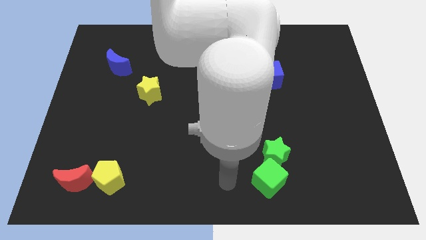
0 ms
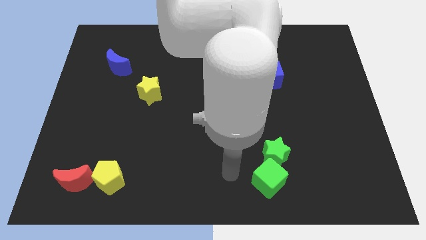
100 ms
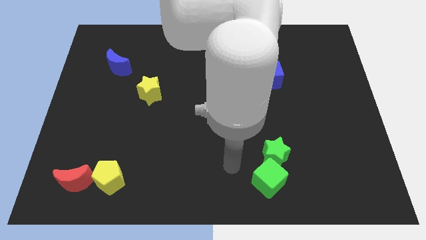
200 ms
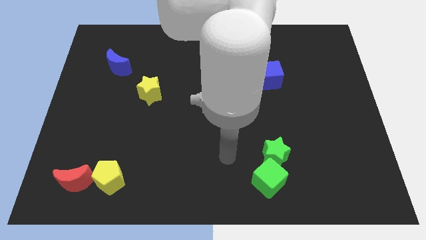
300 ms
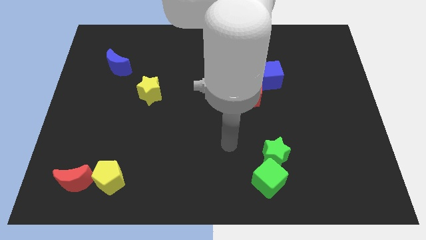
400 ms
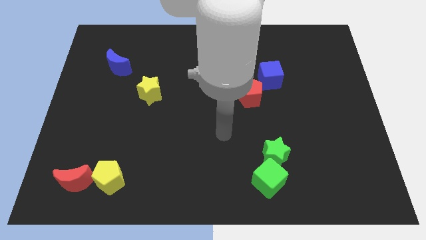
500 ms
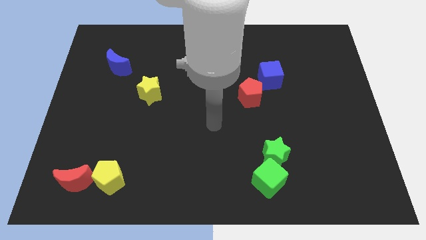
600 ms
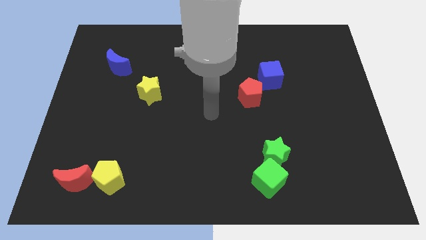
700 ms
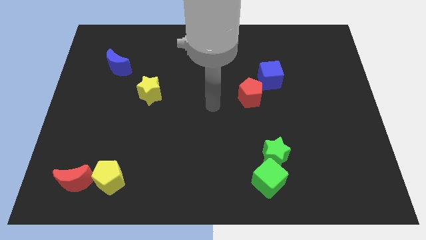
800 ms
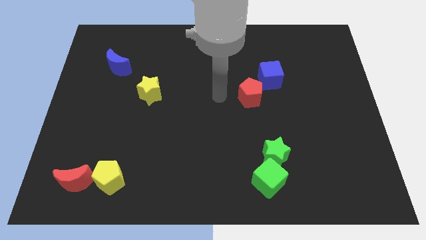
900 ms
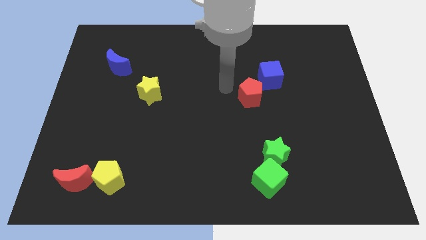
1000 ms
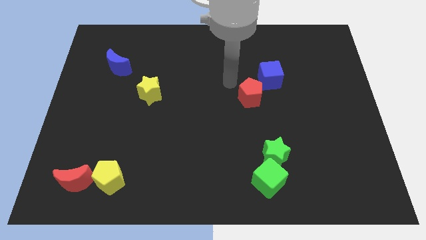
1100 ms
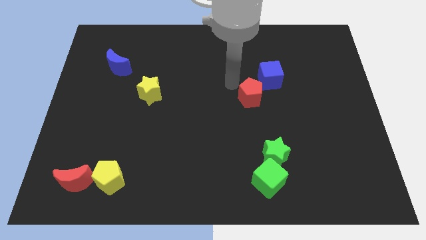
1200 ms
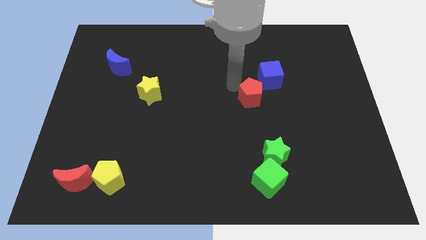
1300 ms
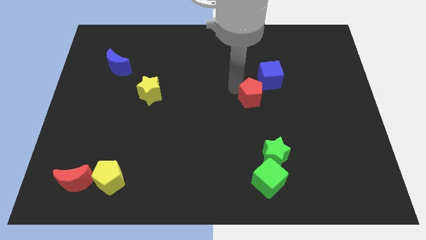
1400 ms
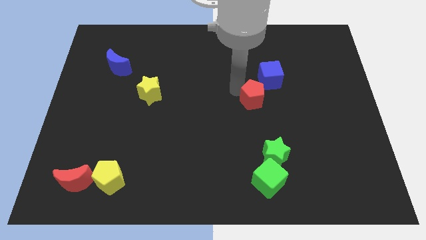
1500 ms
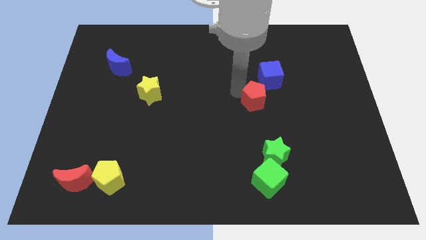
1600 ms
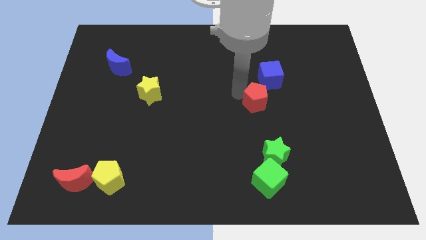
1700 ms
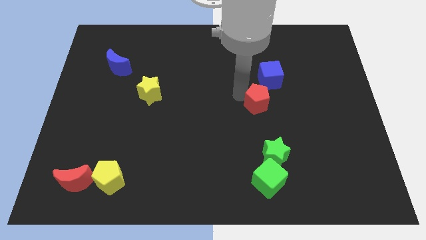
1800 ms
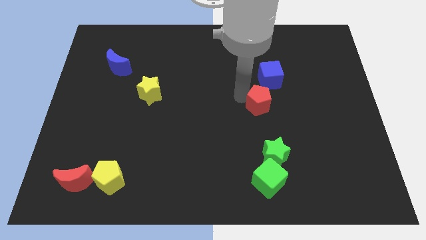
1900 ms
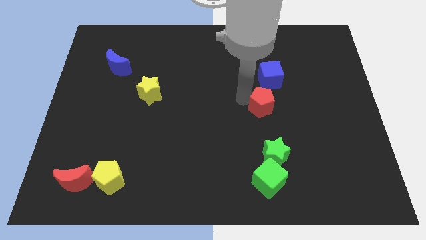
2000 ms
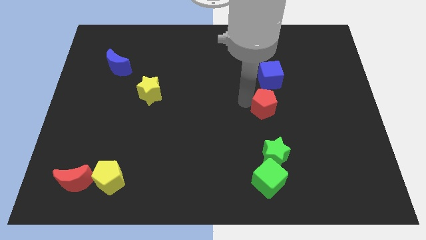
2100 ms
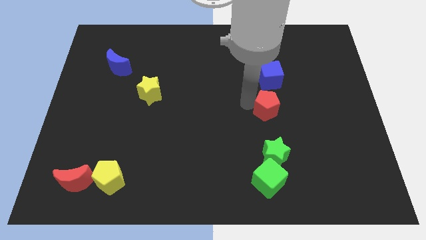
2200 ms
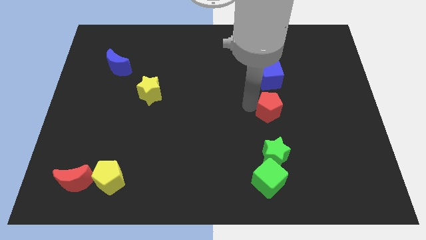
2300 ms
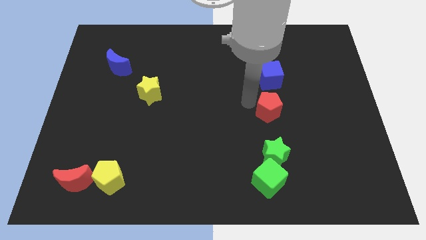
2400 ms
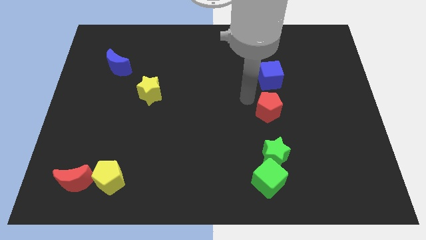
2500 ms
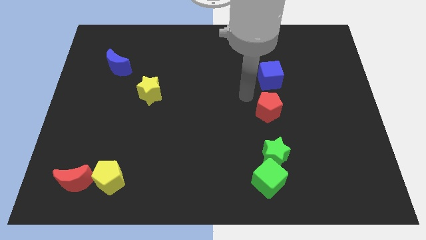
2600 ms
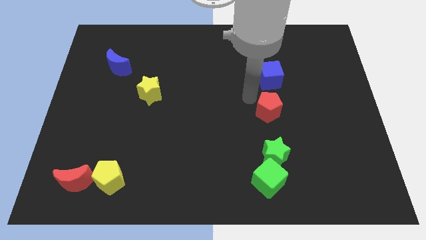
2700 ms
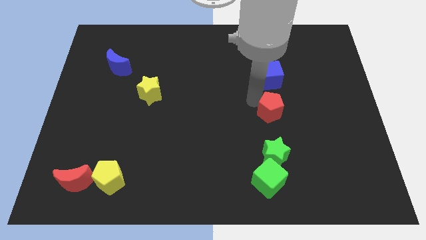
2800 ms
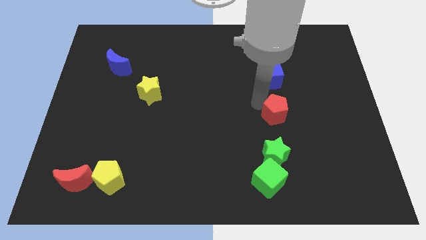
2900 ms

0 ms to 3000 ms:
push the red pentagon a little bit downwards and then to the right

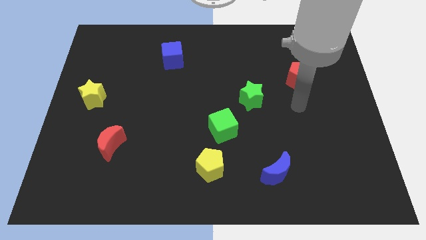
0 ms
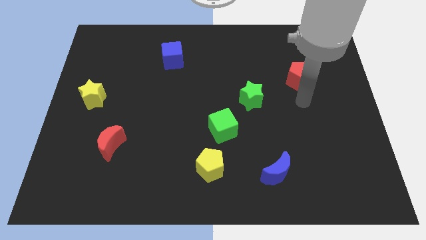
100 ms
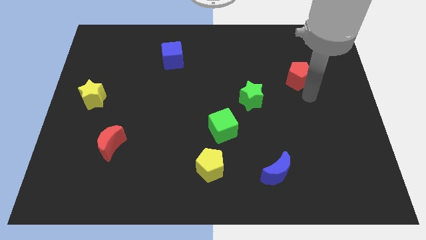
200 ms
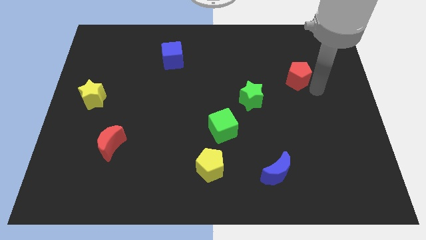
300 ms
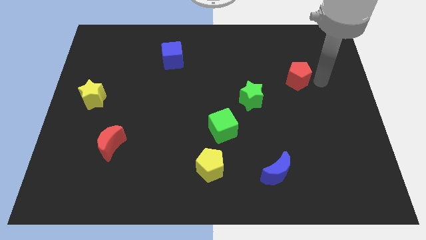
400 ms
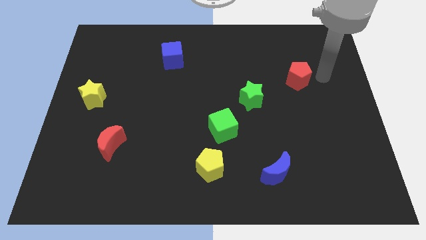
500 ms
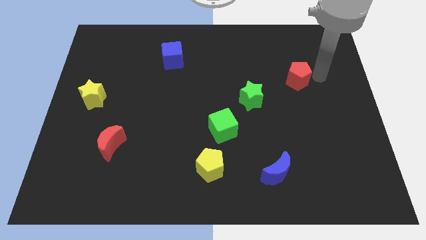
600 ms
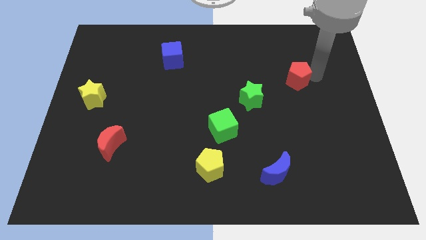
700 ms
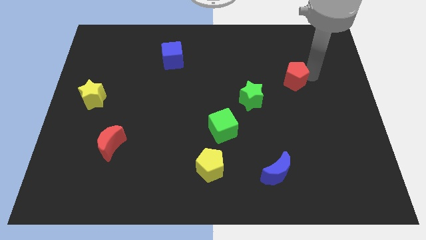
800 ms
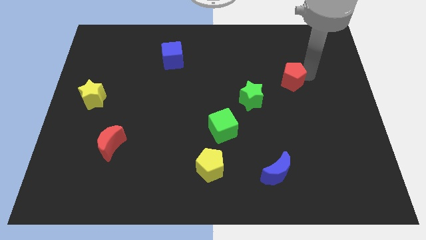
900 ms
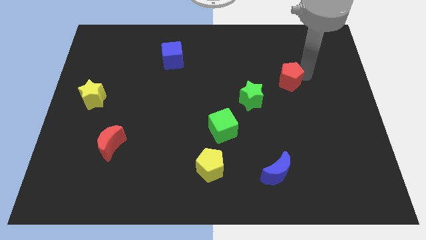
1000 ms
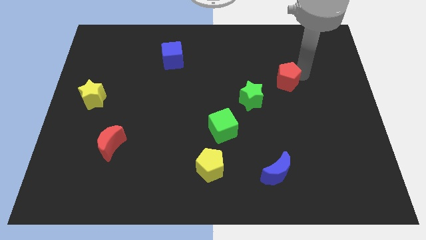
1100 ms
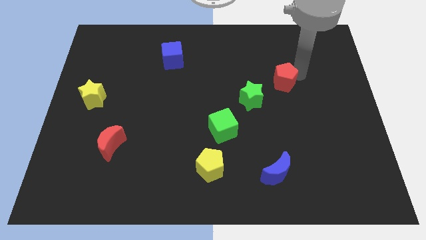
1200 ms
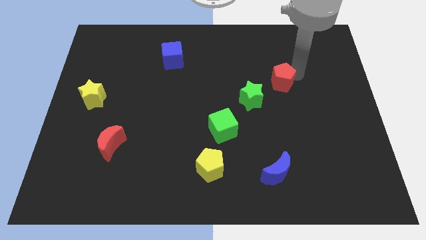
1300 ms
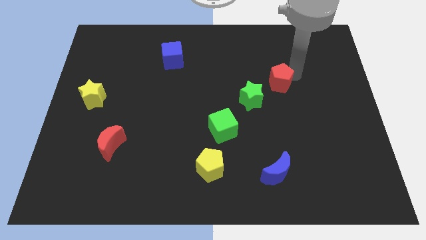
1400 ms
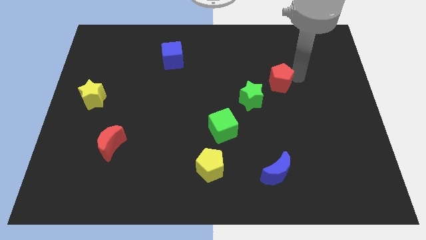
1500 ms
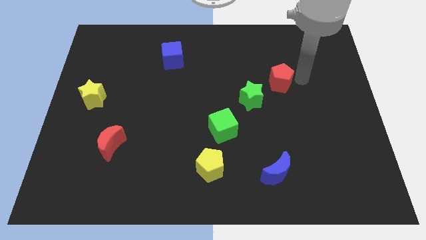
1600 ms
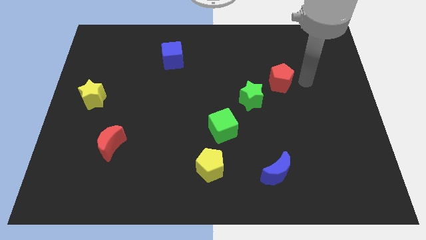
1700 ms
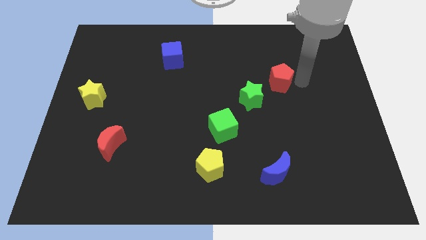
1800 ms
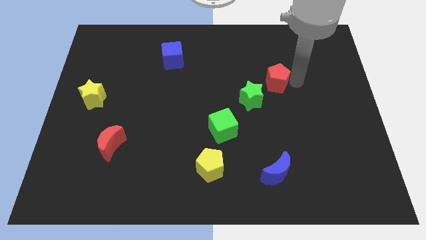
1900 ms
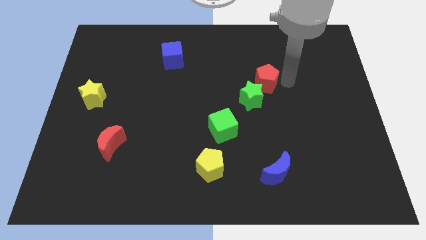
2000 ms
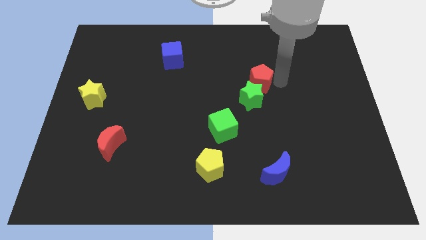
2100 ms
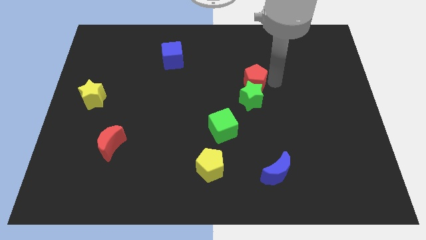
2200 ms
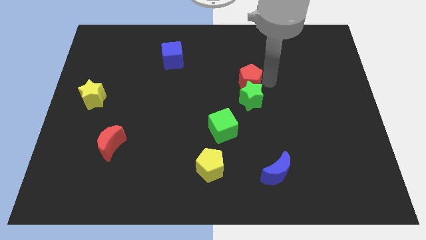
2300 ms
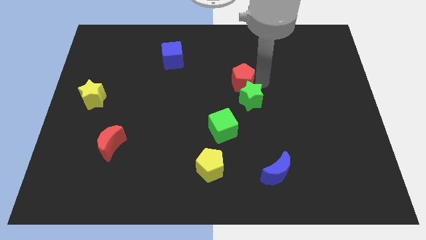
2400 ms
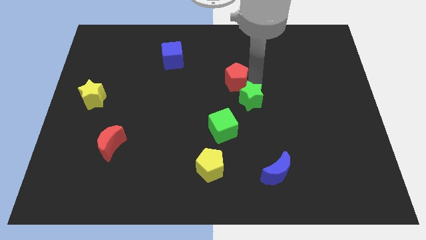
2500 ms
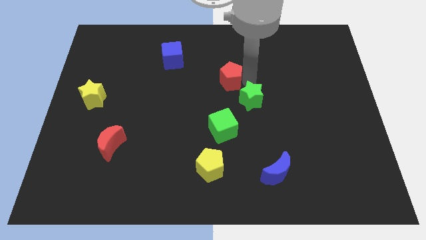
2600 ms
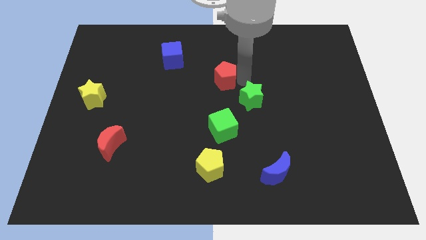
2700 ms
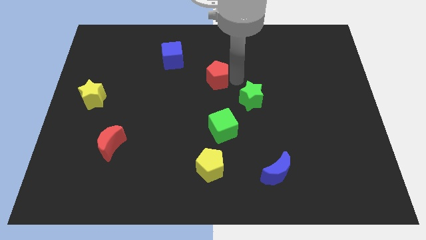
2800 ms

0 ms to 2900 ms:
move the red pentagon to the left

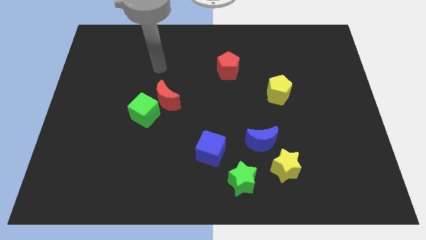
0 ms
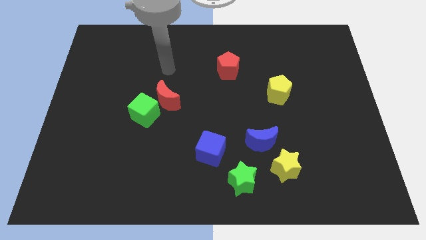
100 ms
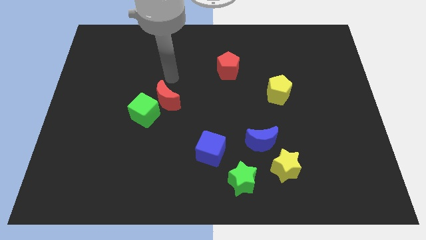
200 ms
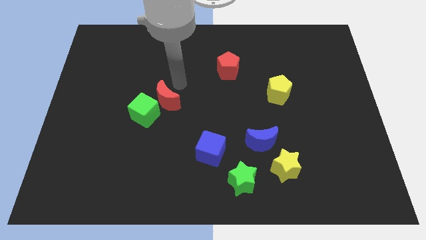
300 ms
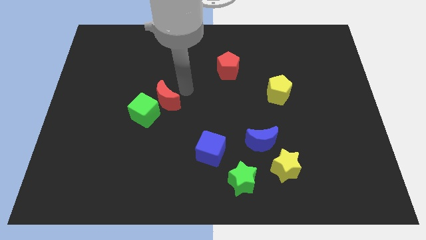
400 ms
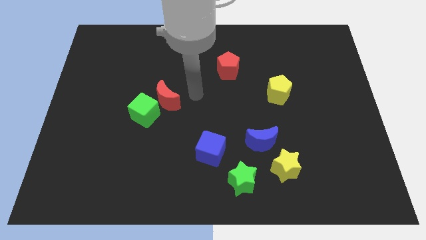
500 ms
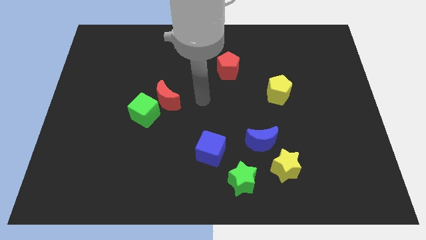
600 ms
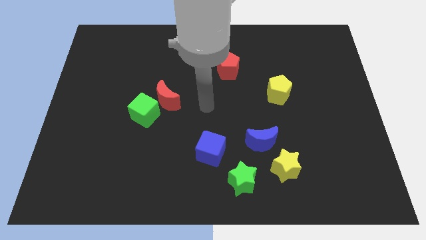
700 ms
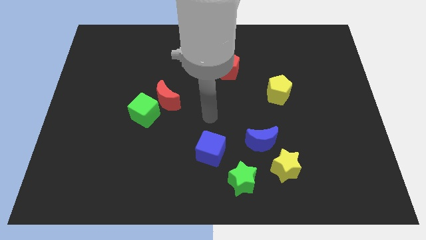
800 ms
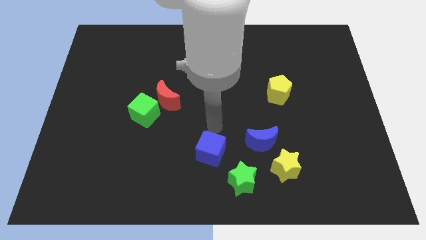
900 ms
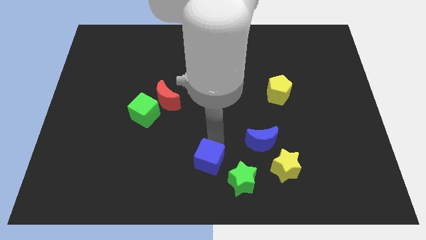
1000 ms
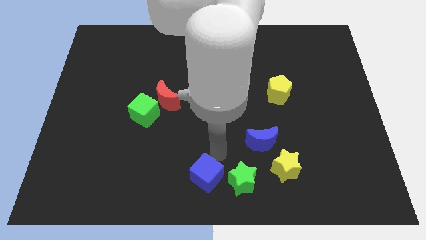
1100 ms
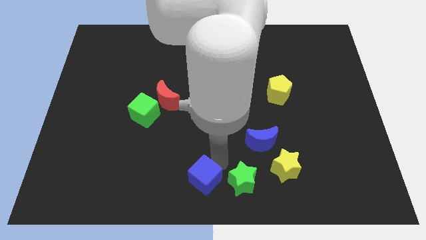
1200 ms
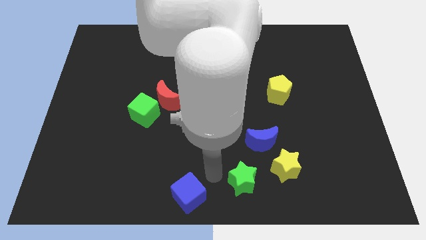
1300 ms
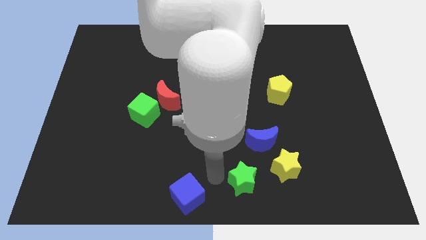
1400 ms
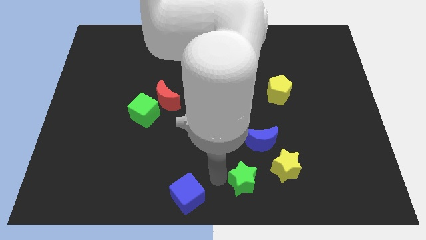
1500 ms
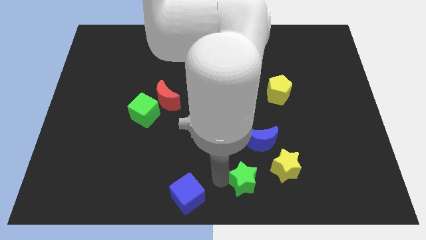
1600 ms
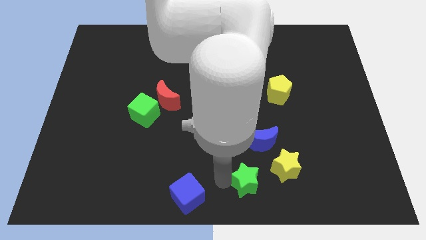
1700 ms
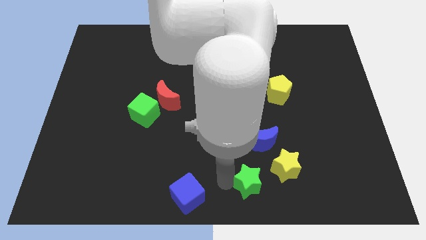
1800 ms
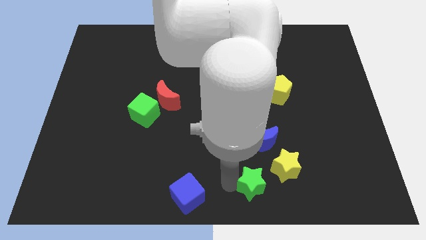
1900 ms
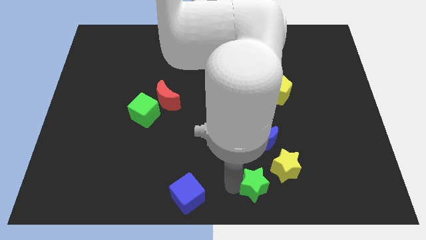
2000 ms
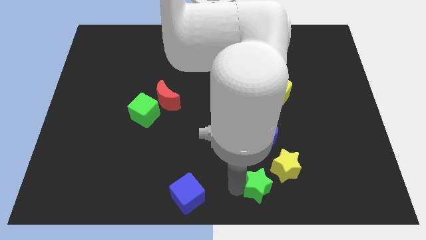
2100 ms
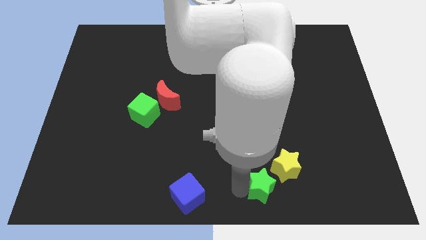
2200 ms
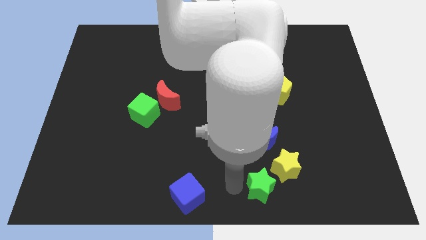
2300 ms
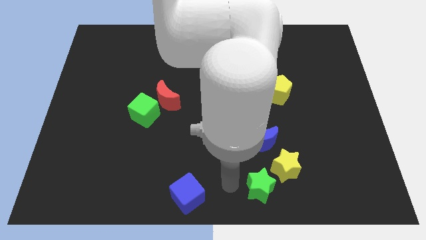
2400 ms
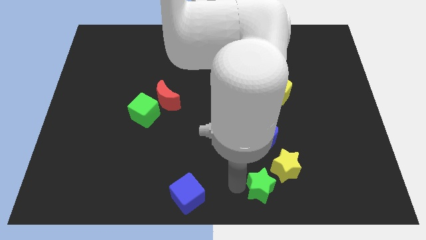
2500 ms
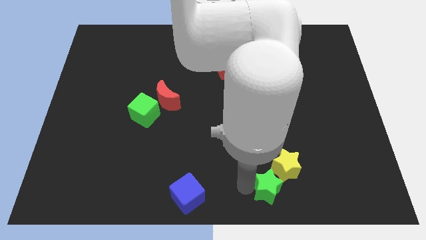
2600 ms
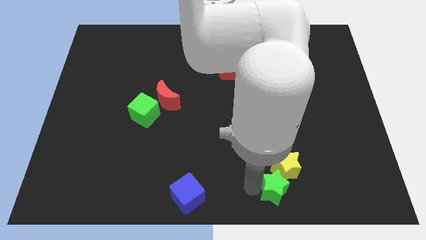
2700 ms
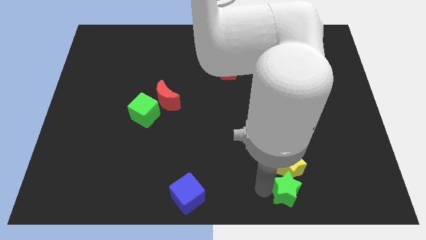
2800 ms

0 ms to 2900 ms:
slide the green star a bit to the right
